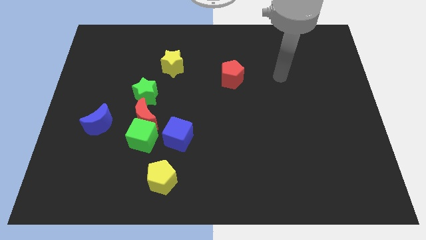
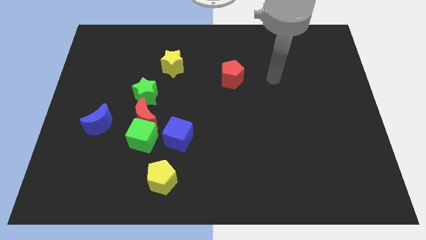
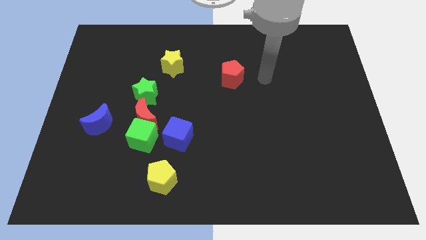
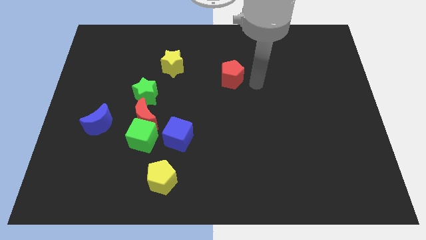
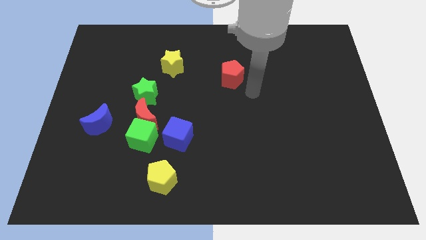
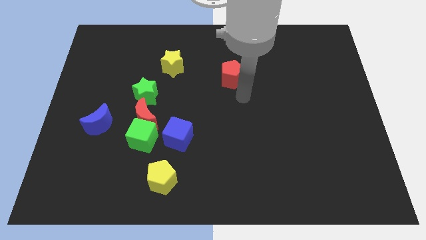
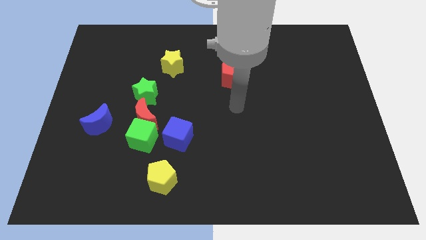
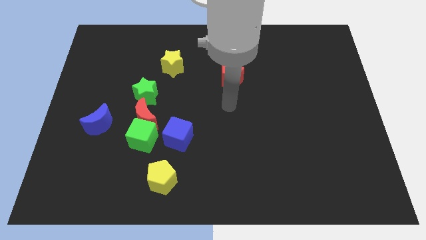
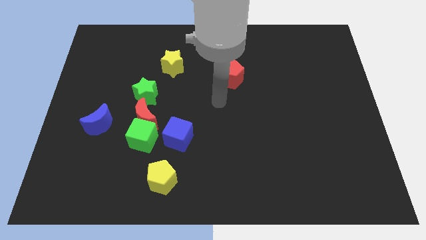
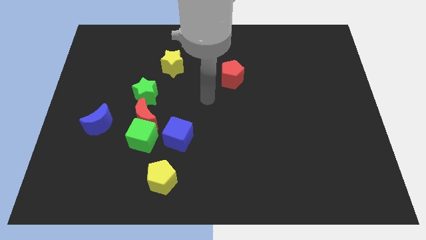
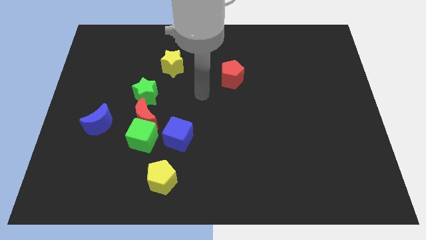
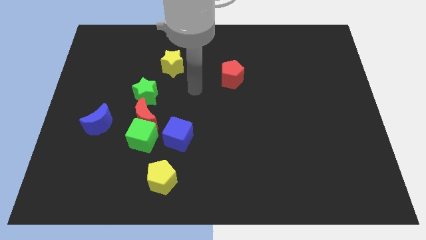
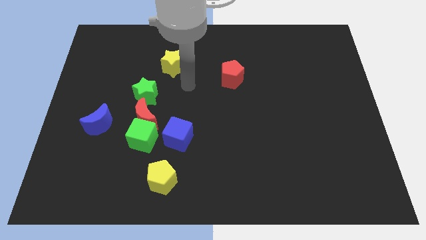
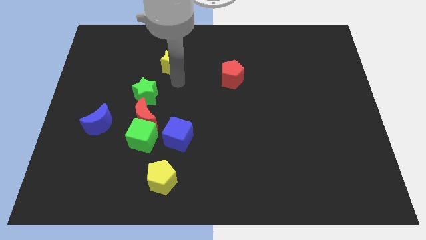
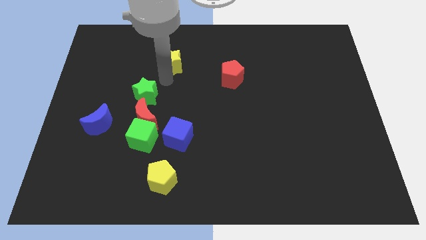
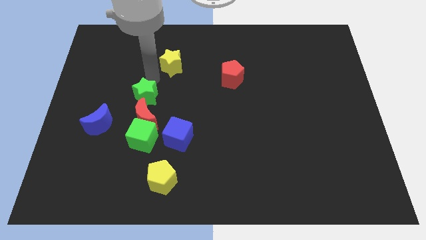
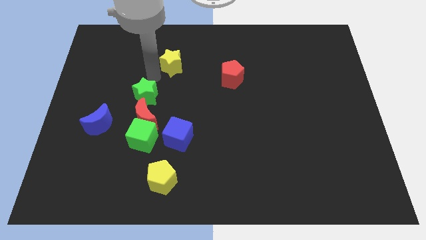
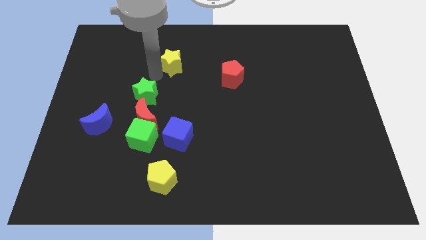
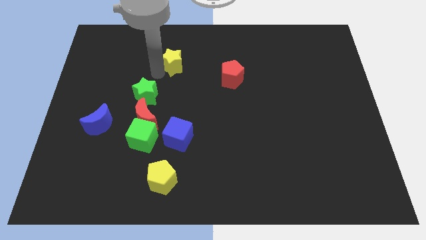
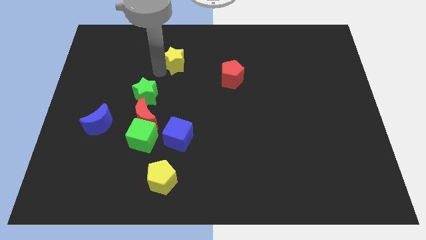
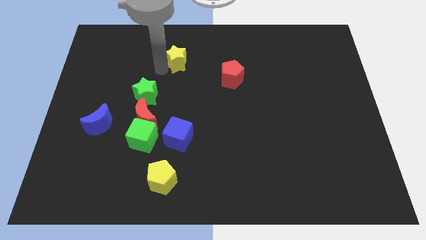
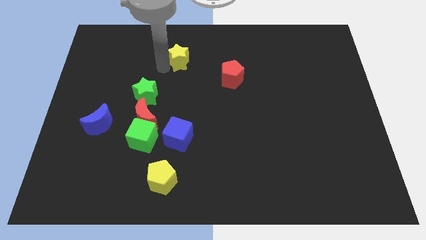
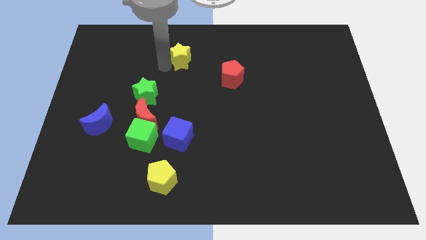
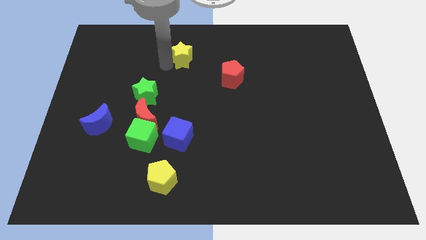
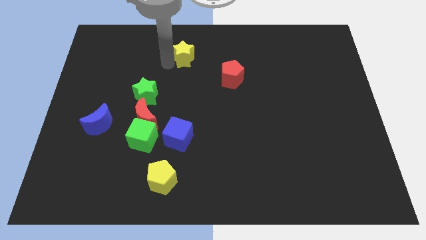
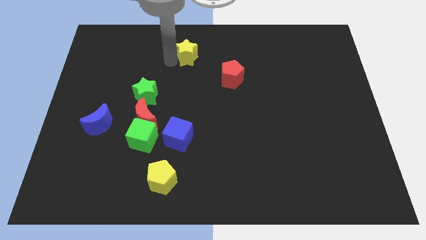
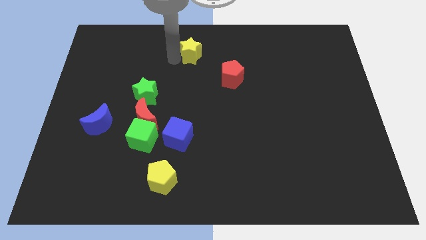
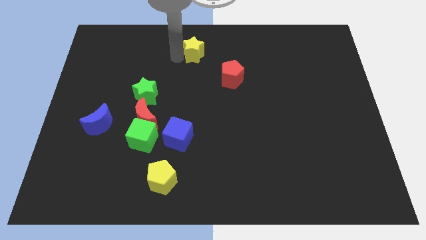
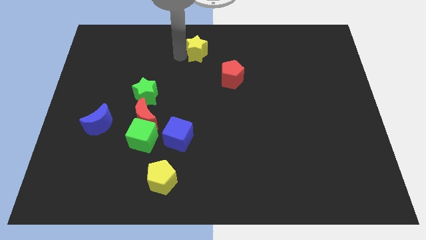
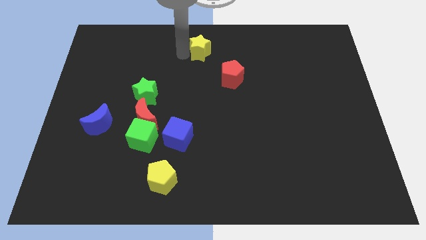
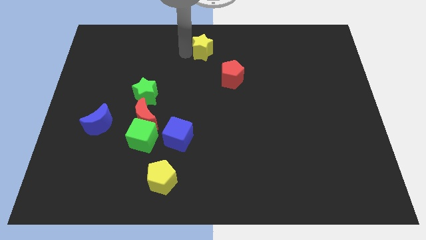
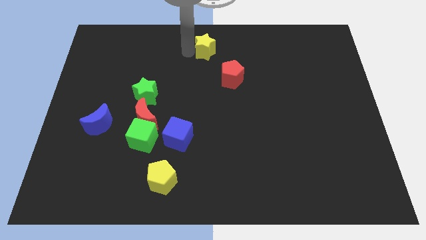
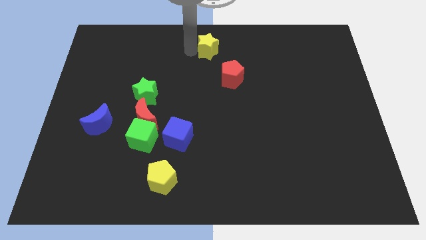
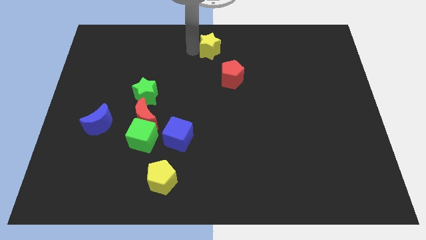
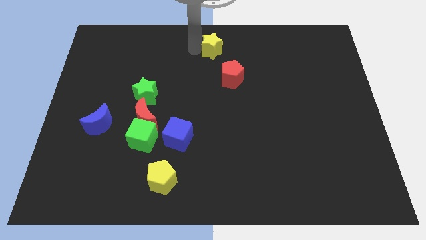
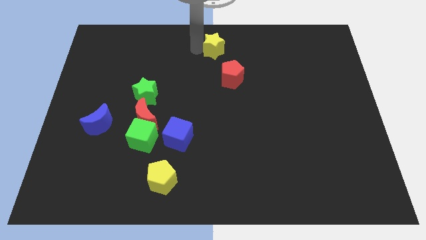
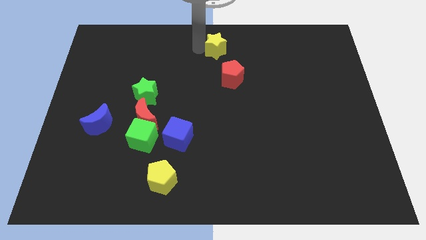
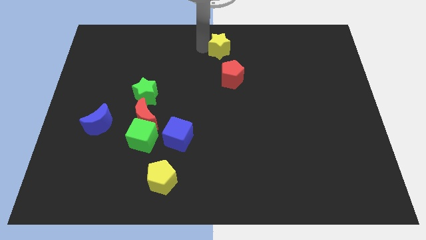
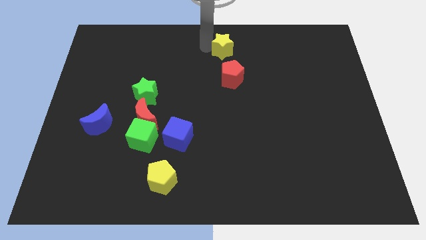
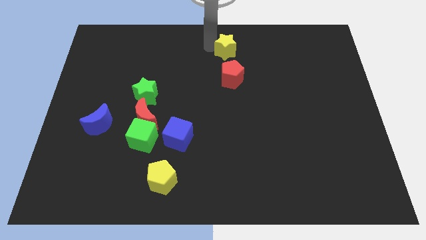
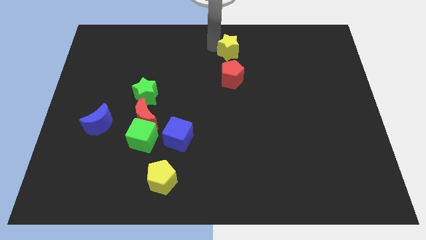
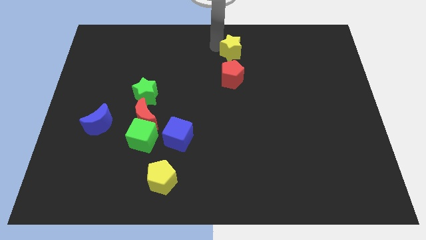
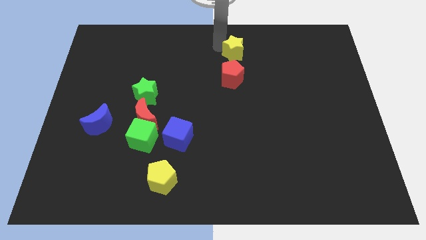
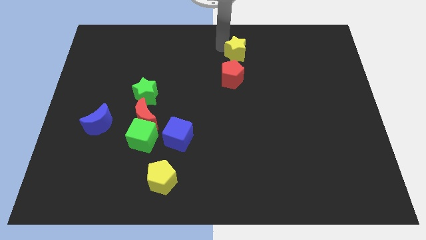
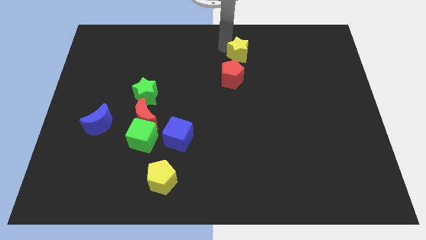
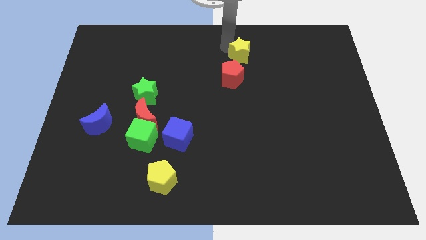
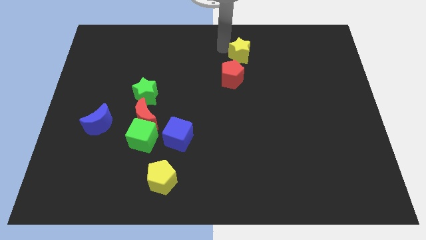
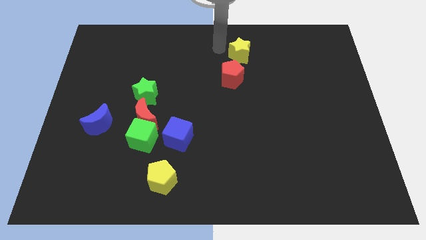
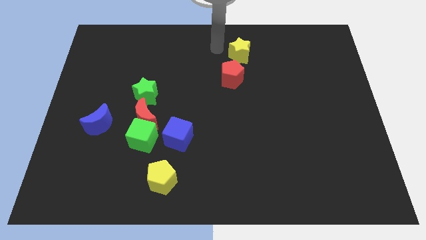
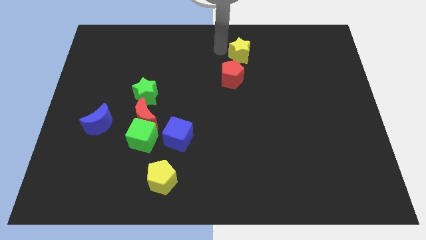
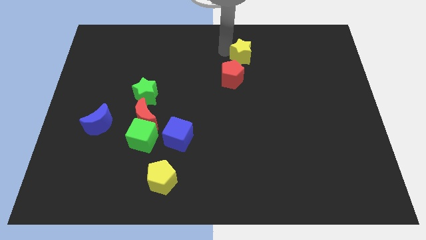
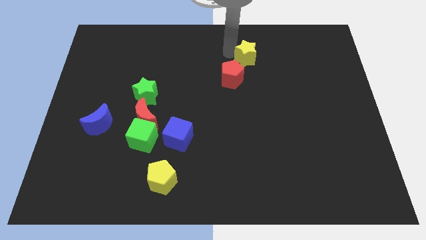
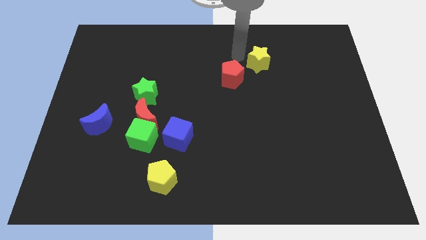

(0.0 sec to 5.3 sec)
push the yellow star right

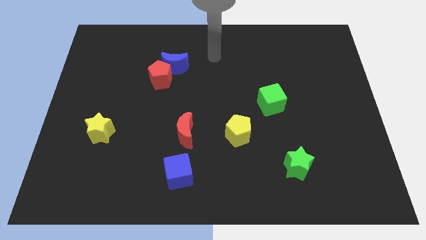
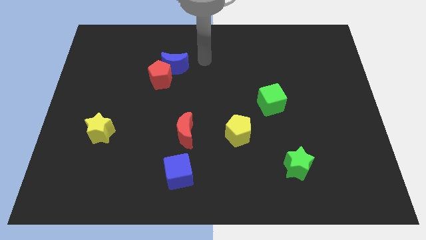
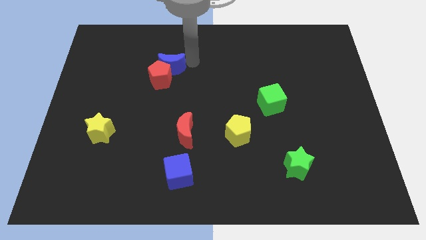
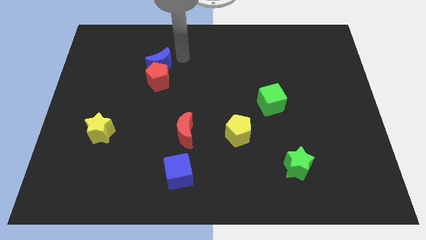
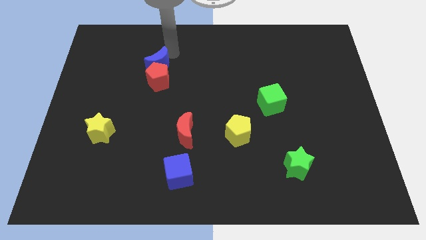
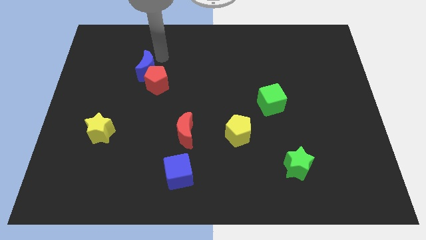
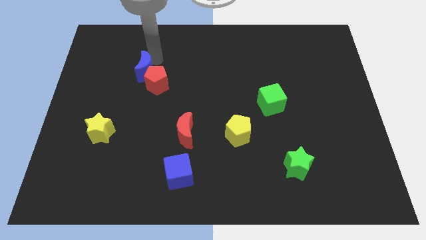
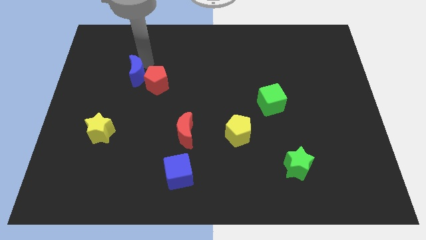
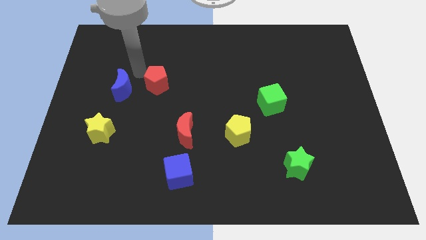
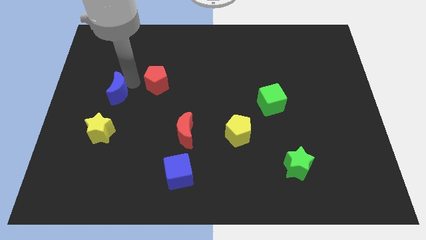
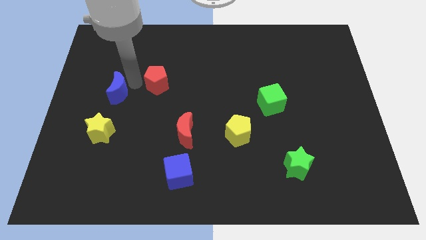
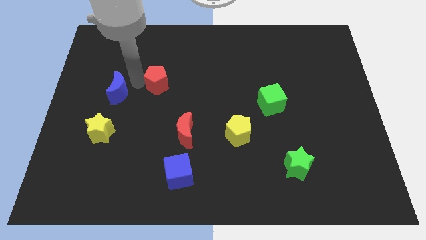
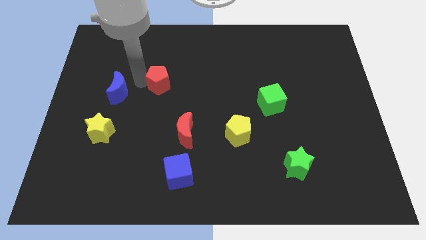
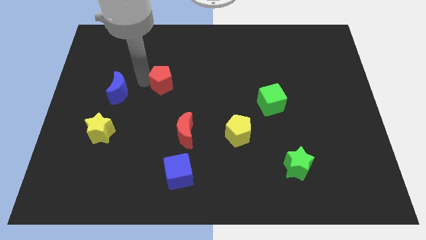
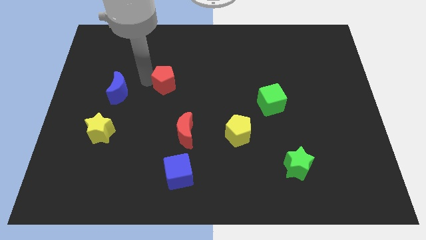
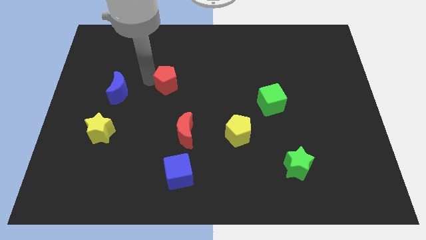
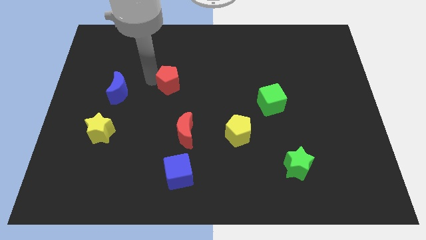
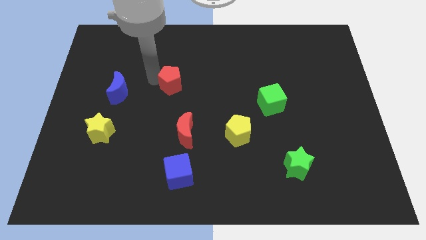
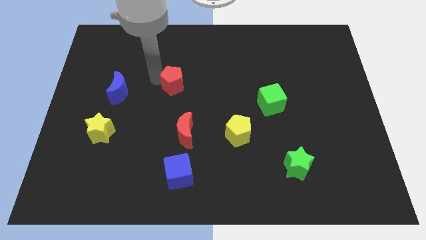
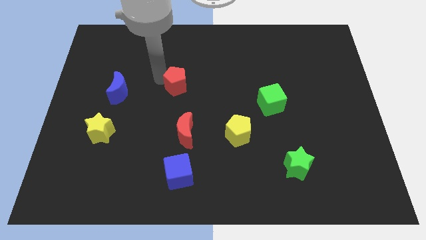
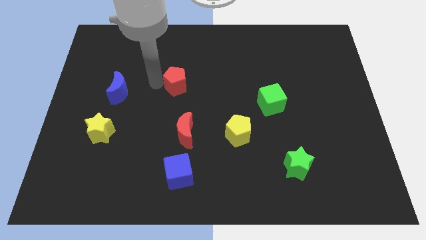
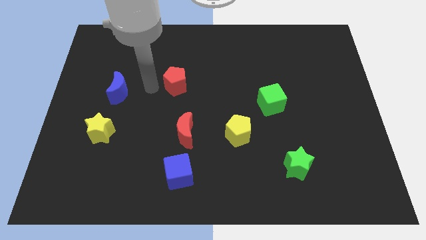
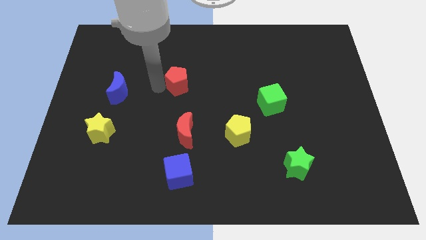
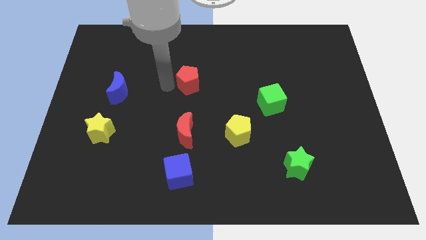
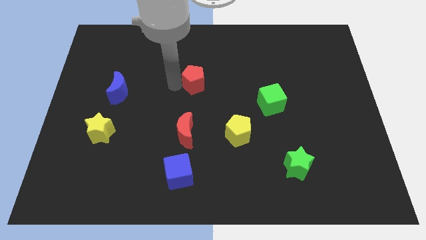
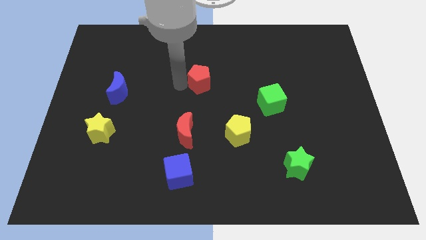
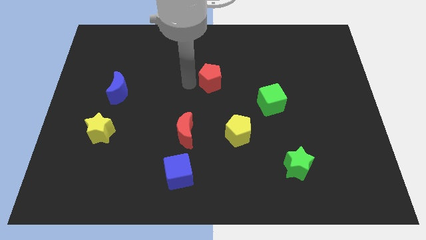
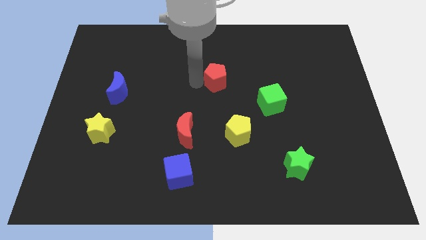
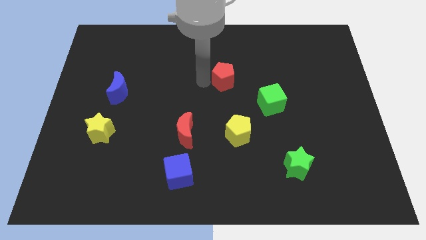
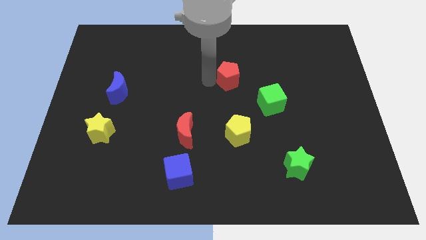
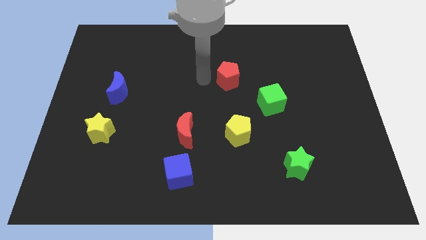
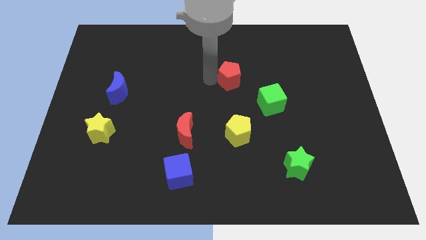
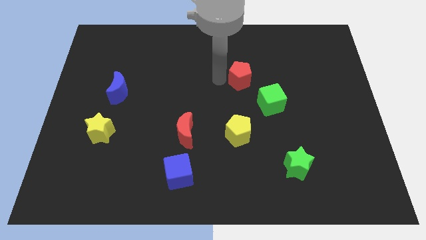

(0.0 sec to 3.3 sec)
push the red pentagon right
